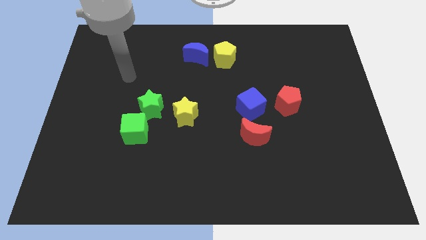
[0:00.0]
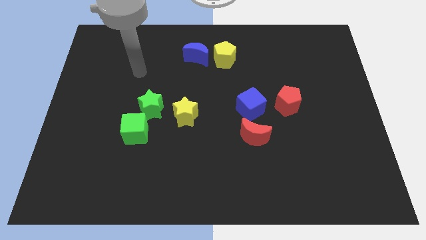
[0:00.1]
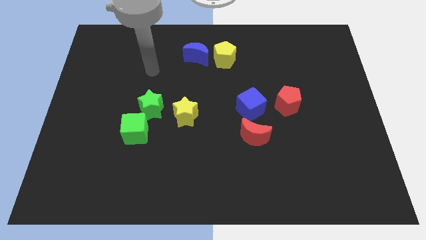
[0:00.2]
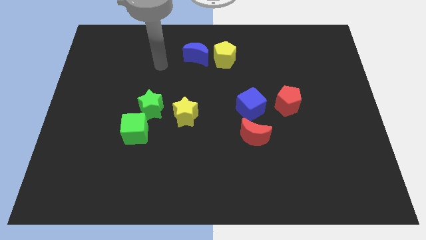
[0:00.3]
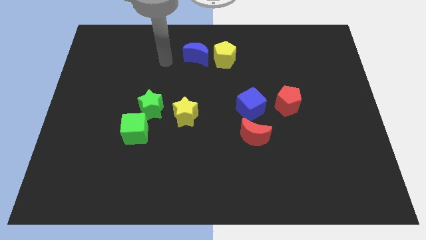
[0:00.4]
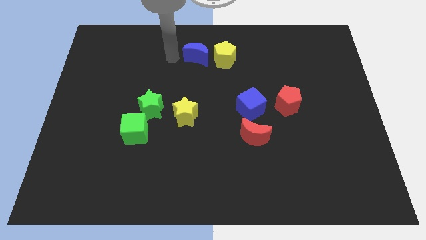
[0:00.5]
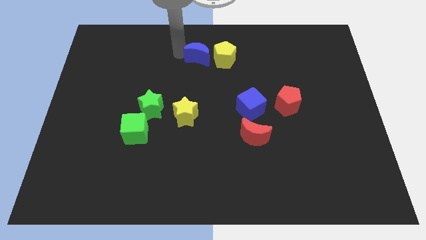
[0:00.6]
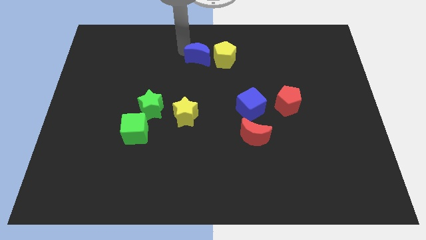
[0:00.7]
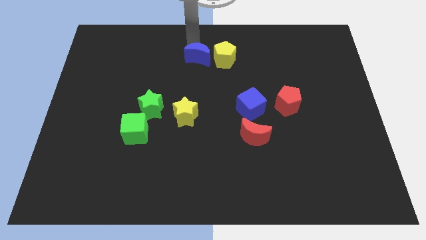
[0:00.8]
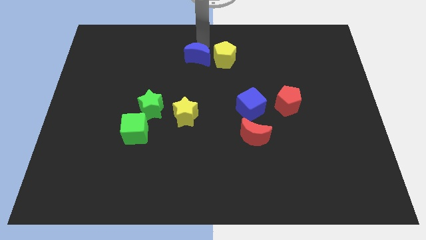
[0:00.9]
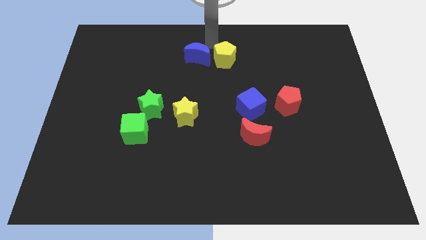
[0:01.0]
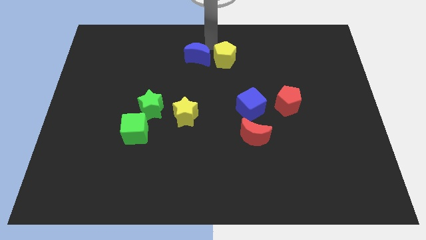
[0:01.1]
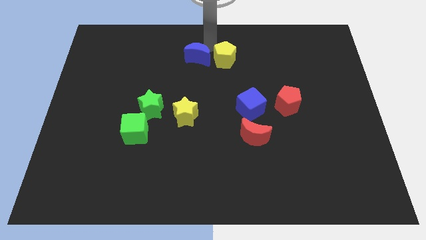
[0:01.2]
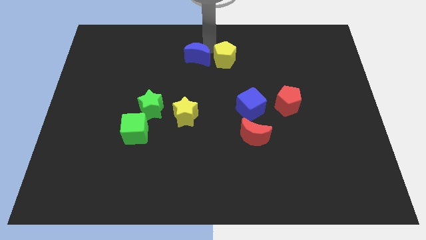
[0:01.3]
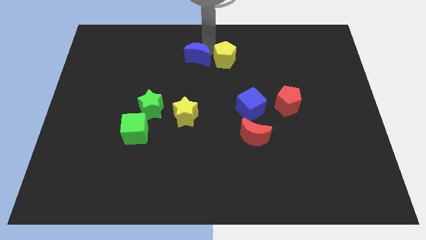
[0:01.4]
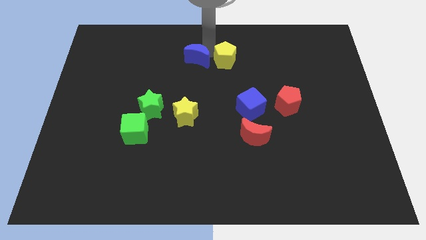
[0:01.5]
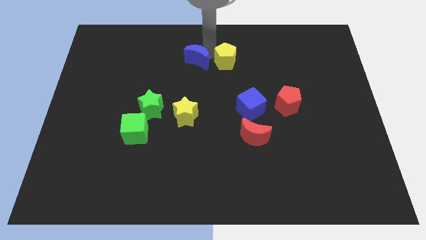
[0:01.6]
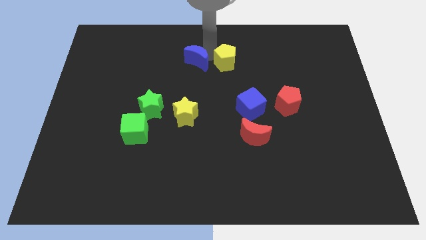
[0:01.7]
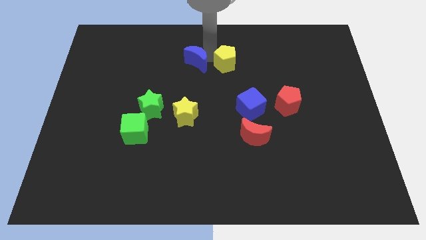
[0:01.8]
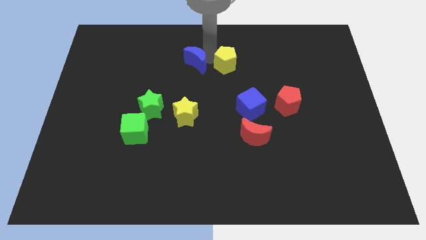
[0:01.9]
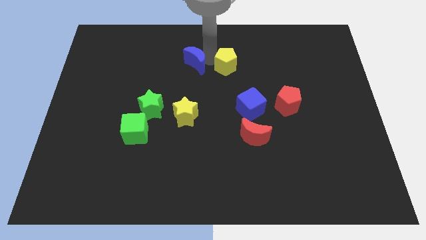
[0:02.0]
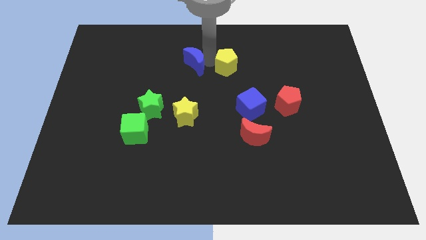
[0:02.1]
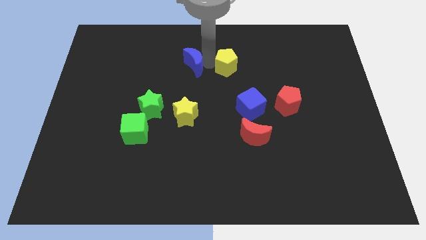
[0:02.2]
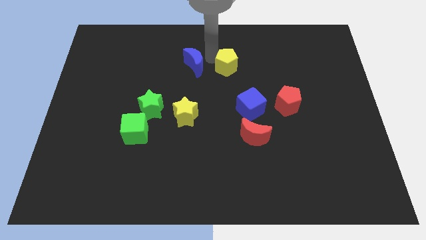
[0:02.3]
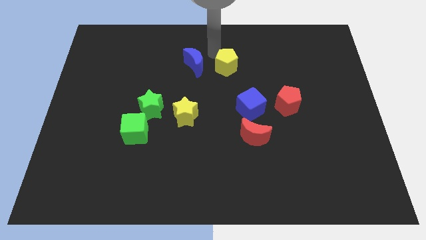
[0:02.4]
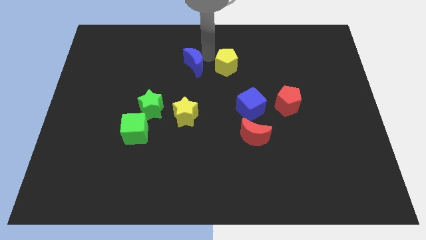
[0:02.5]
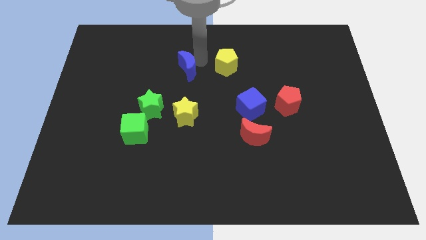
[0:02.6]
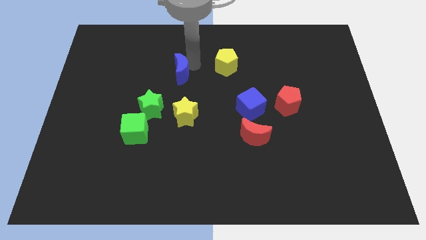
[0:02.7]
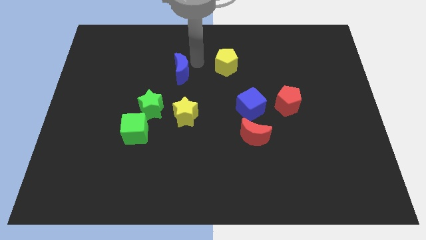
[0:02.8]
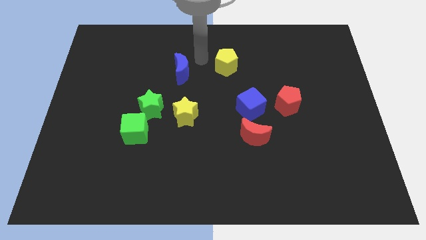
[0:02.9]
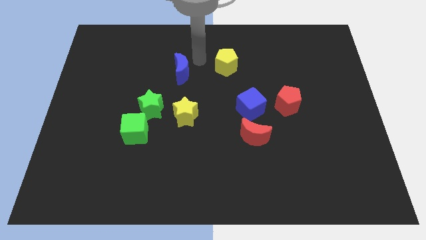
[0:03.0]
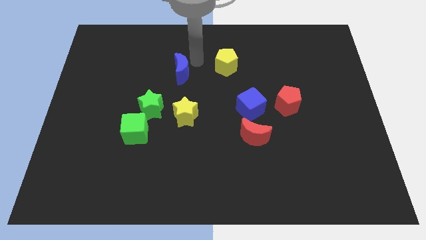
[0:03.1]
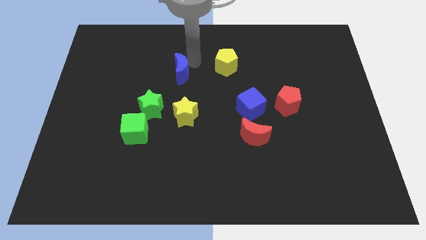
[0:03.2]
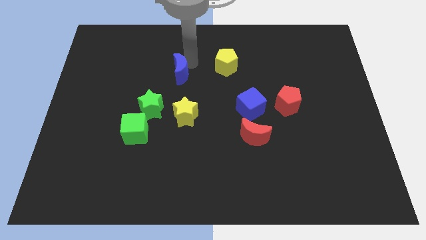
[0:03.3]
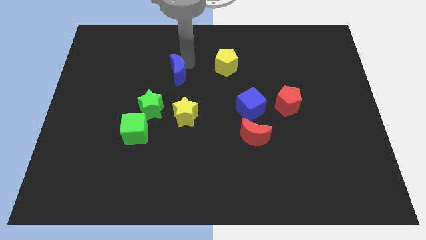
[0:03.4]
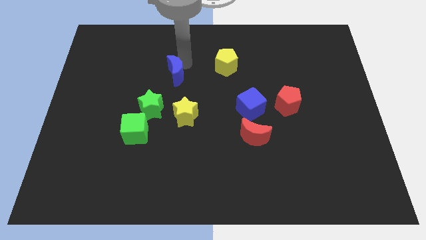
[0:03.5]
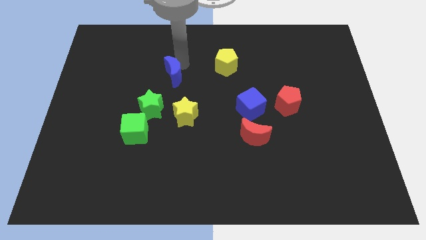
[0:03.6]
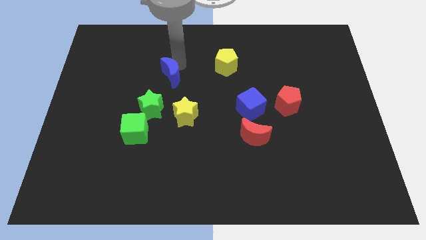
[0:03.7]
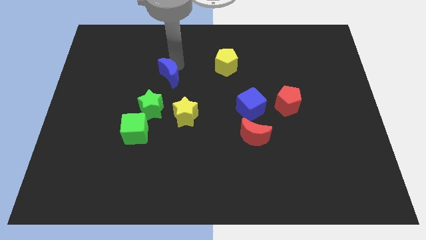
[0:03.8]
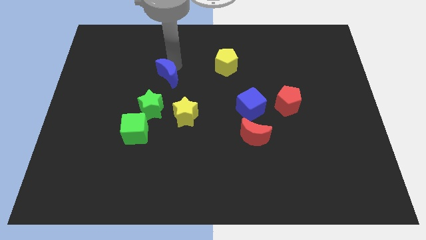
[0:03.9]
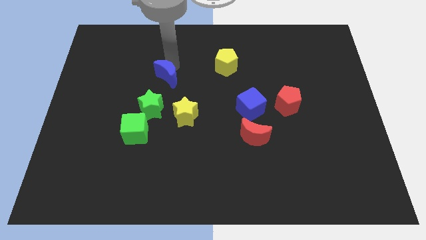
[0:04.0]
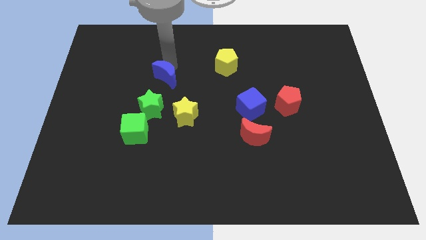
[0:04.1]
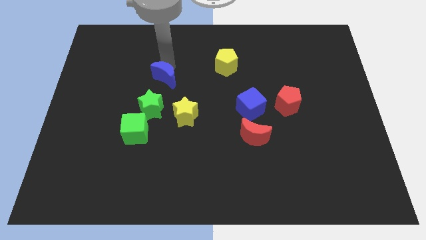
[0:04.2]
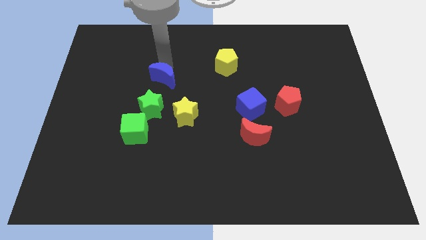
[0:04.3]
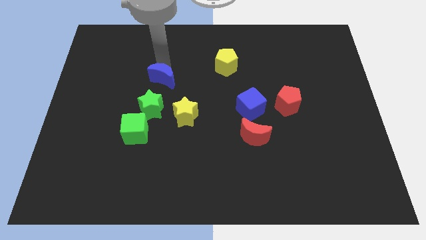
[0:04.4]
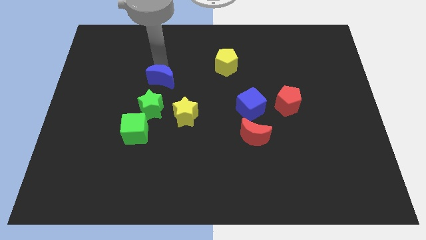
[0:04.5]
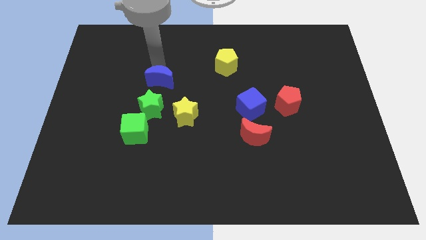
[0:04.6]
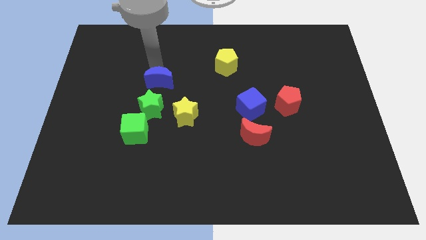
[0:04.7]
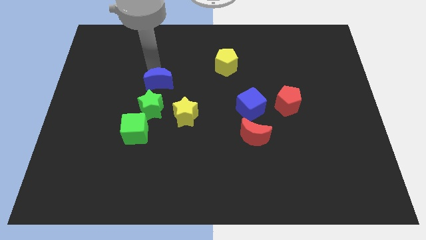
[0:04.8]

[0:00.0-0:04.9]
move the blue moon to the top left of the yellow star

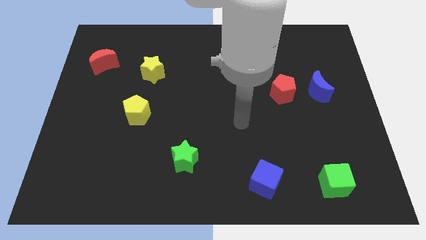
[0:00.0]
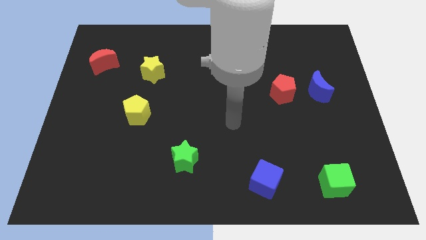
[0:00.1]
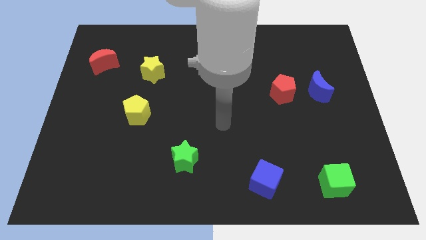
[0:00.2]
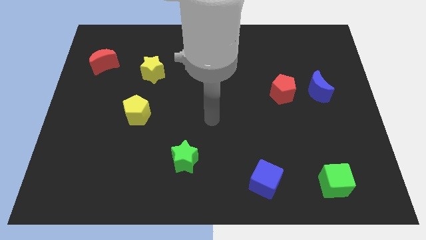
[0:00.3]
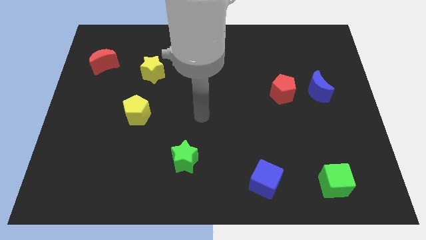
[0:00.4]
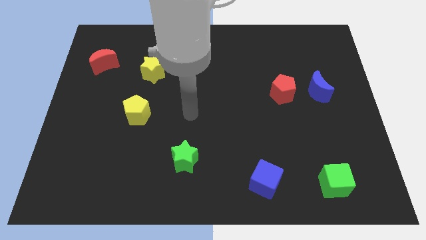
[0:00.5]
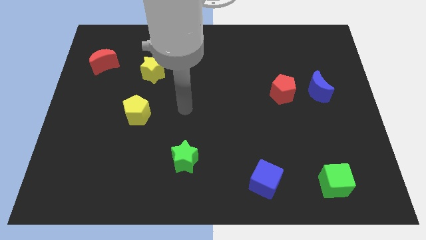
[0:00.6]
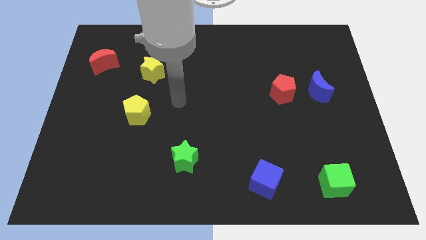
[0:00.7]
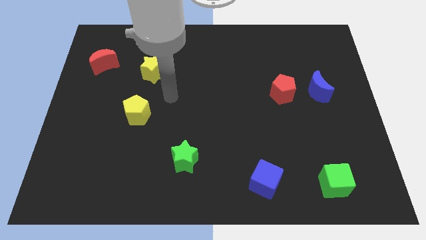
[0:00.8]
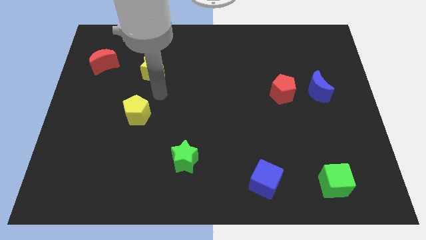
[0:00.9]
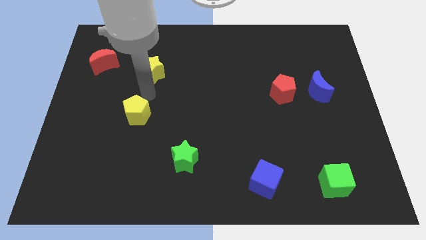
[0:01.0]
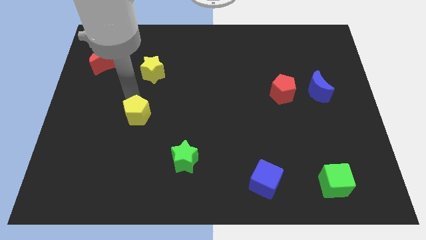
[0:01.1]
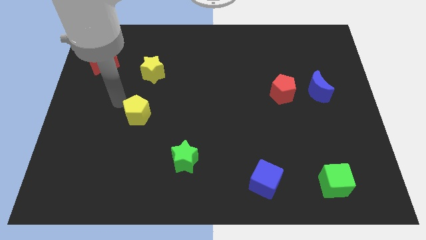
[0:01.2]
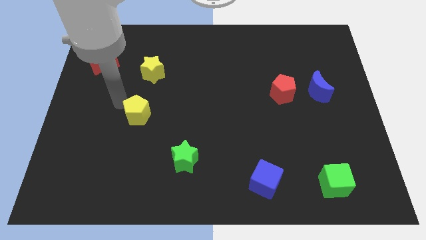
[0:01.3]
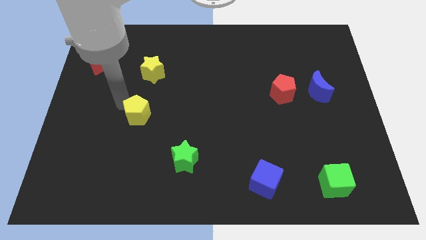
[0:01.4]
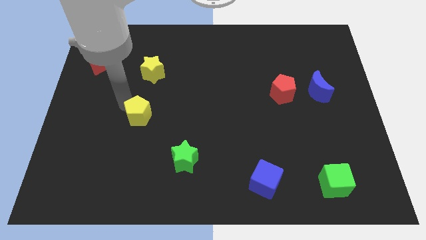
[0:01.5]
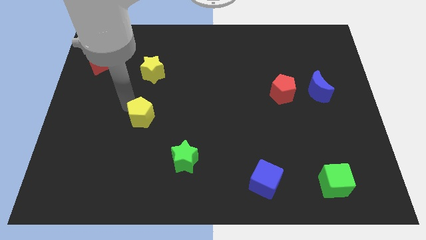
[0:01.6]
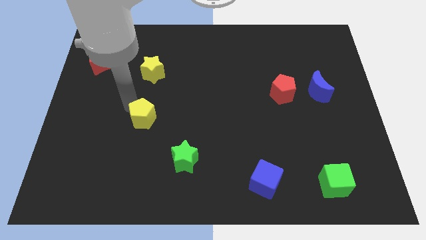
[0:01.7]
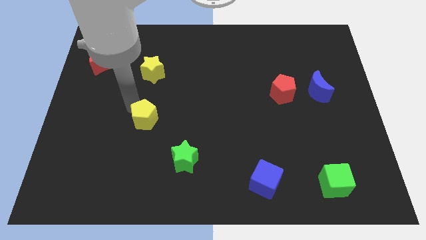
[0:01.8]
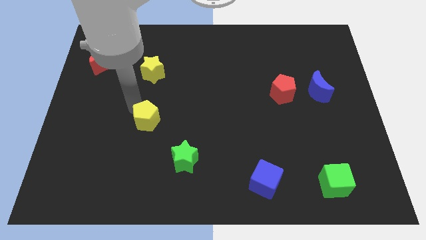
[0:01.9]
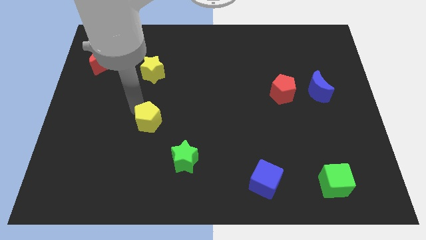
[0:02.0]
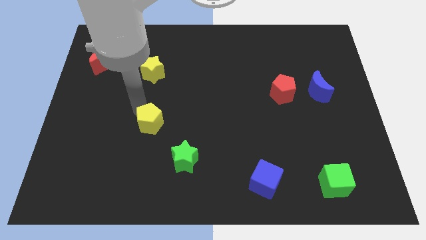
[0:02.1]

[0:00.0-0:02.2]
move the yellow pentagon diagonally up and to the left of the green star
